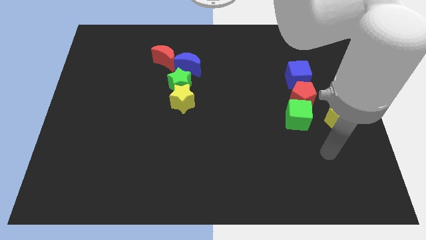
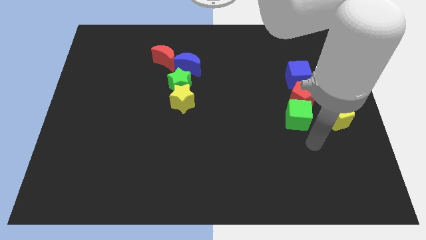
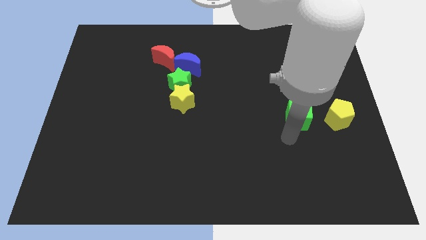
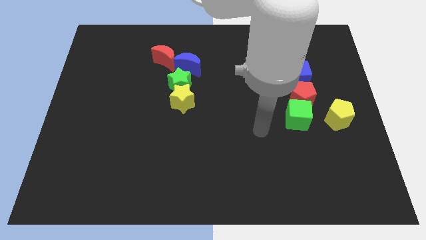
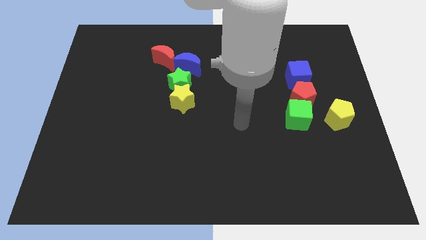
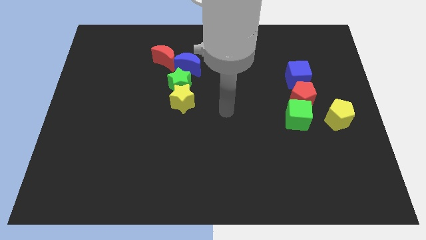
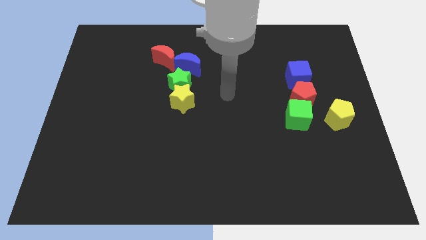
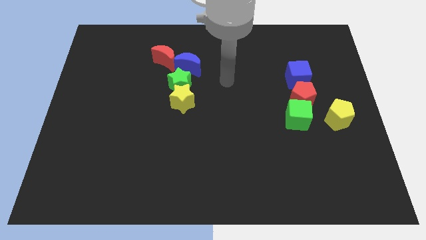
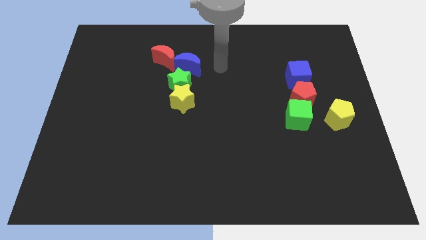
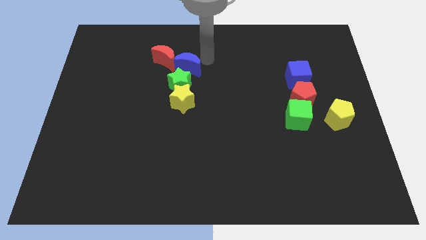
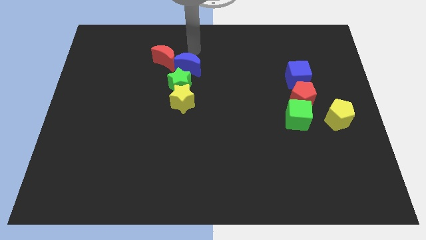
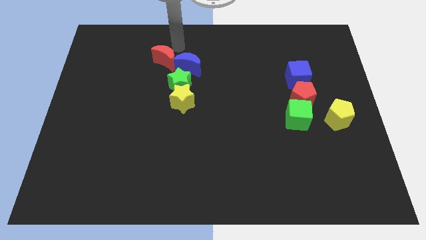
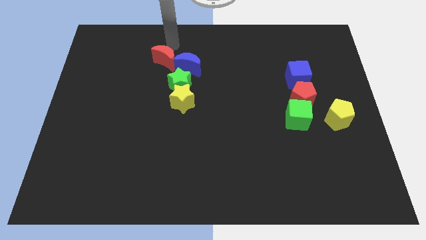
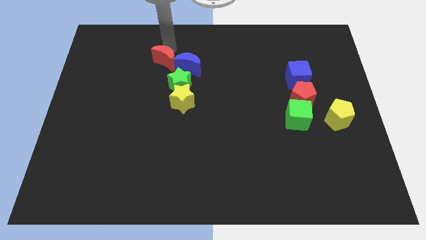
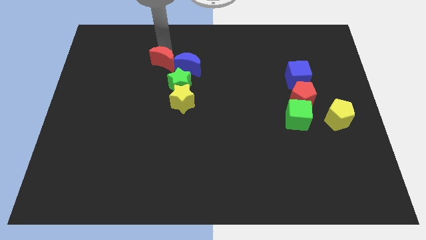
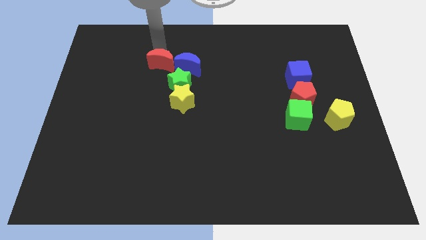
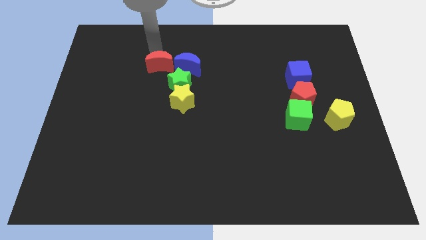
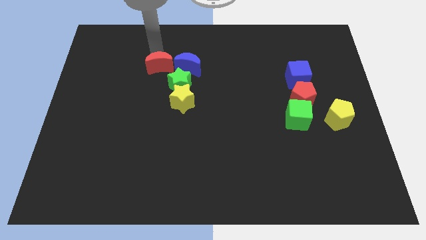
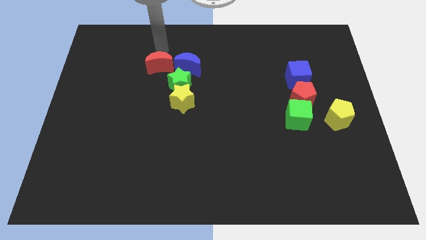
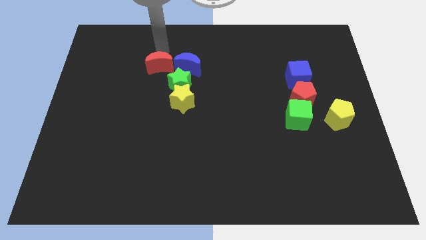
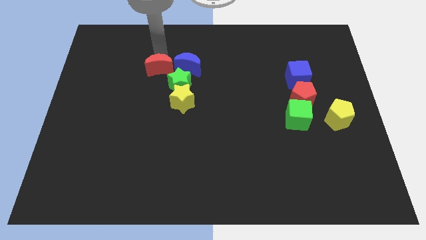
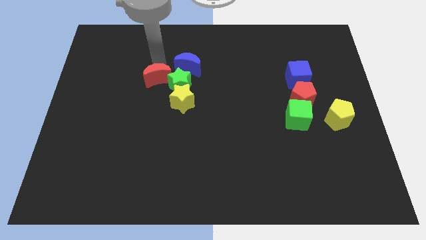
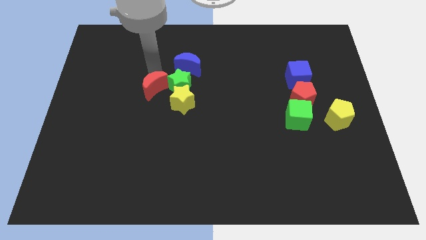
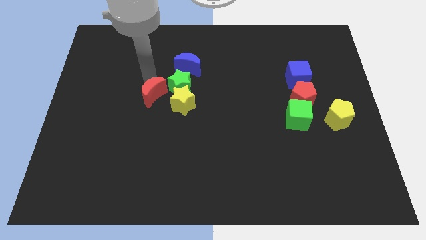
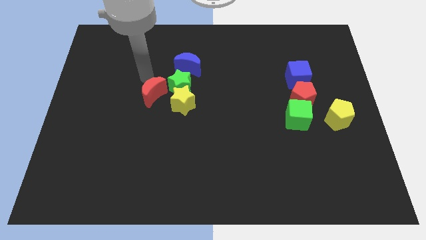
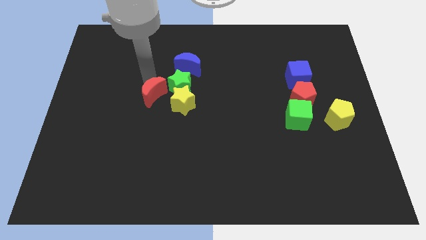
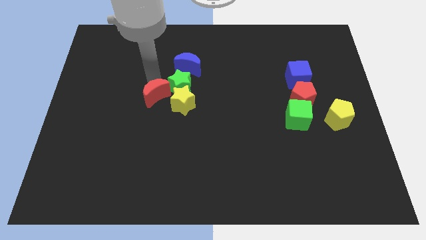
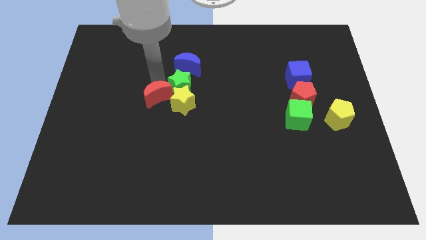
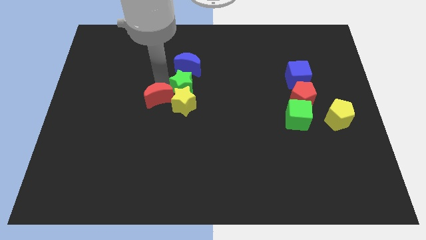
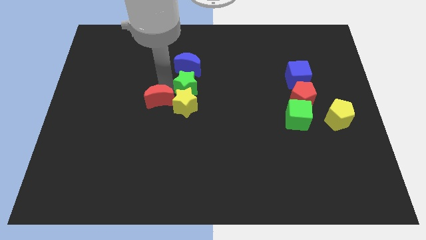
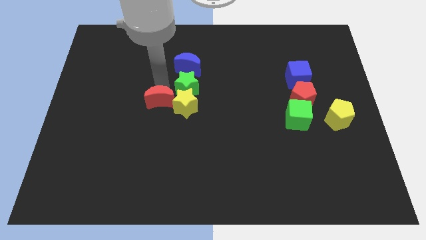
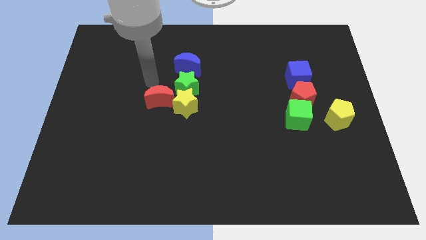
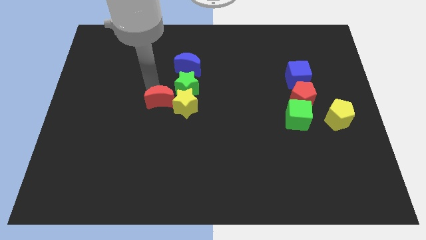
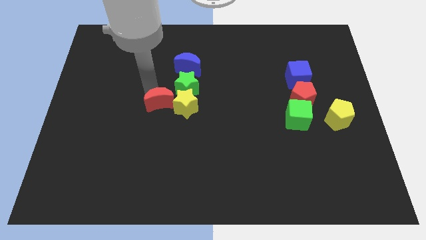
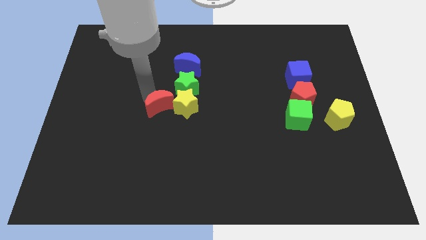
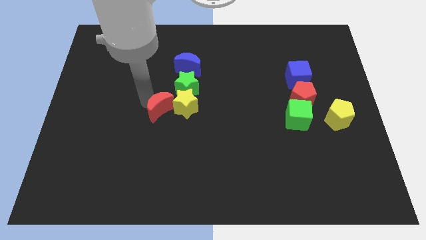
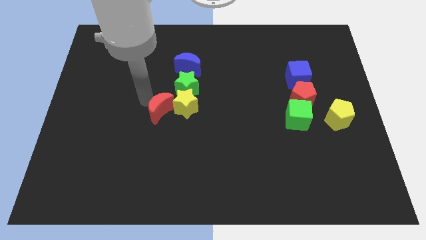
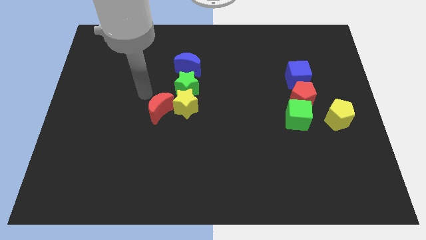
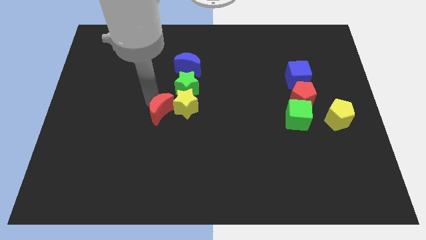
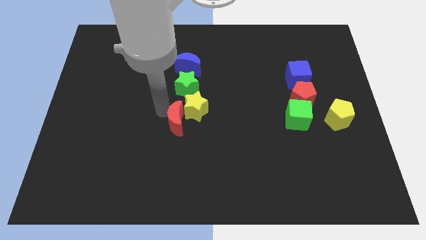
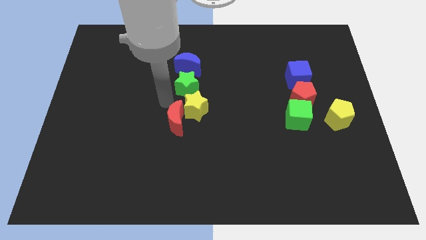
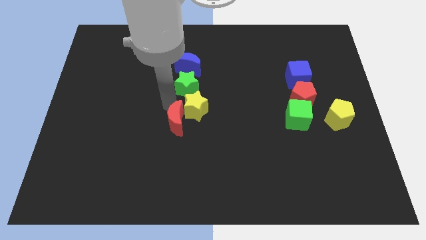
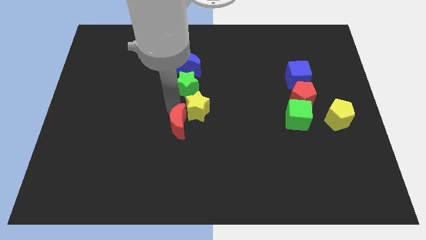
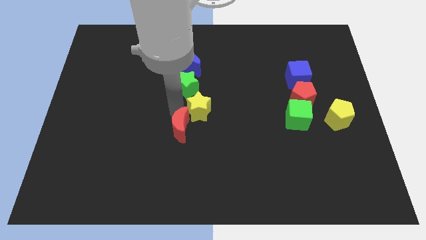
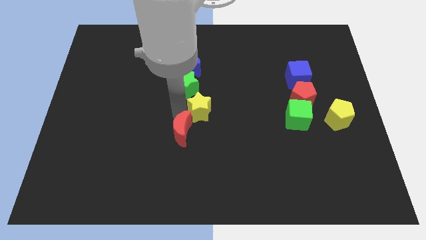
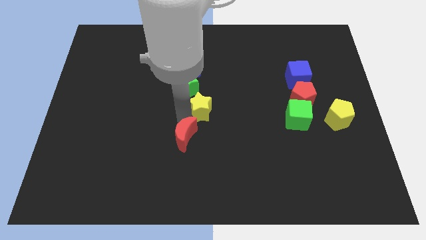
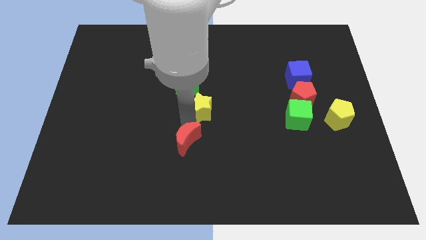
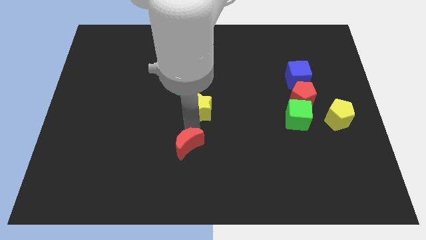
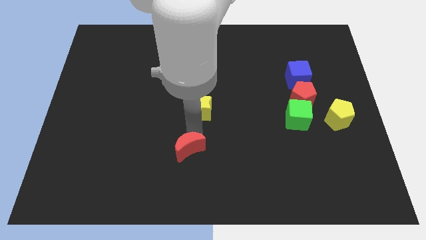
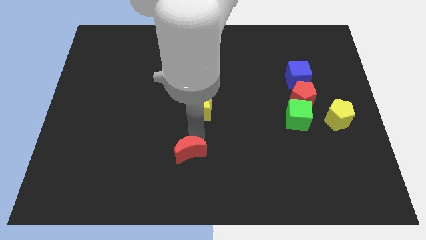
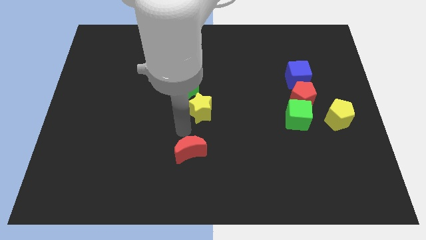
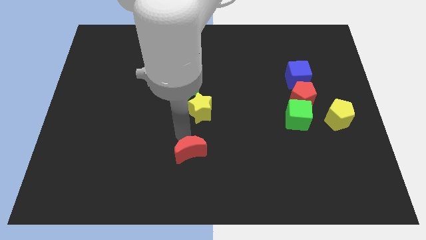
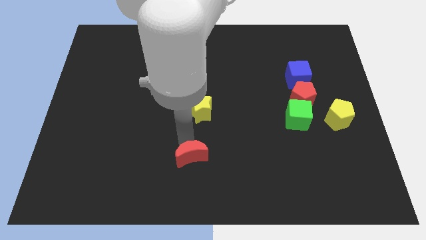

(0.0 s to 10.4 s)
slide the red moon to the bottom

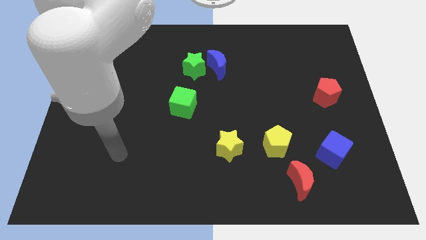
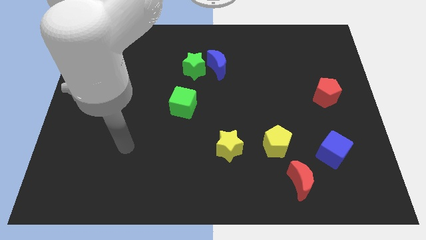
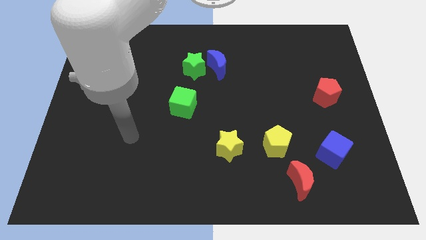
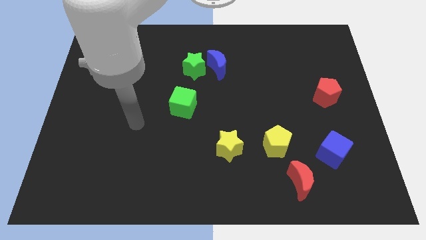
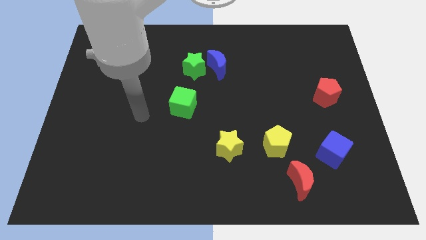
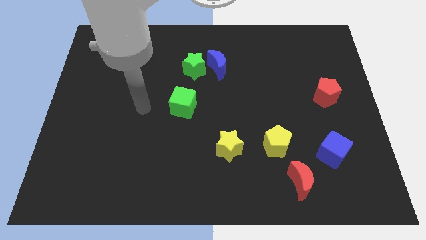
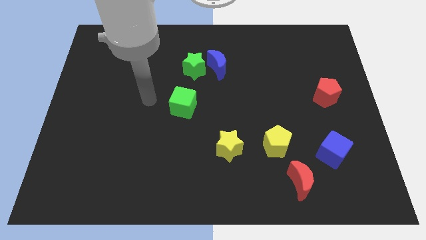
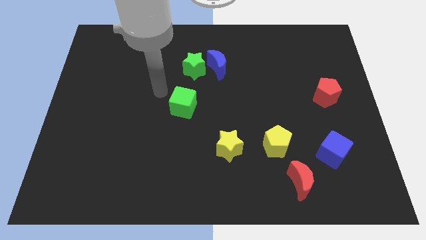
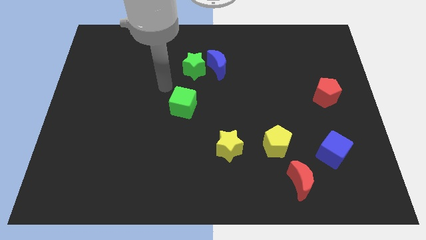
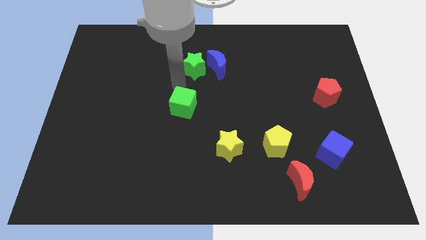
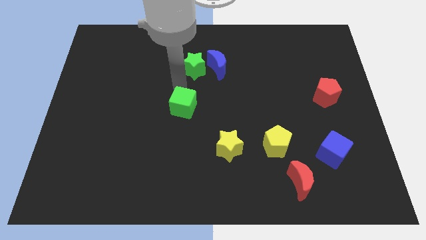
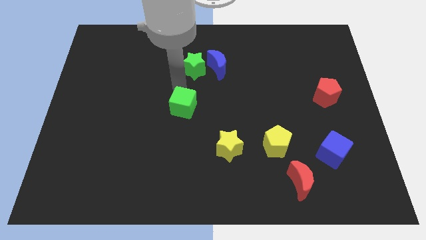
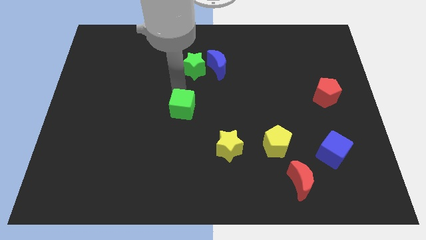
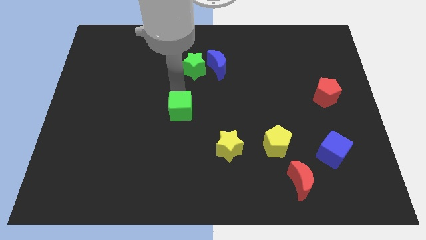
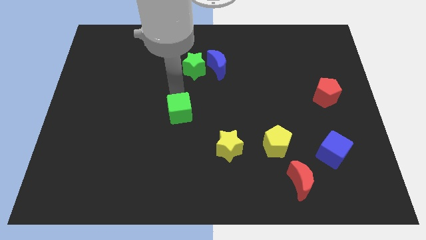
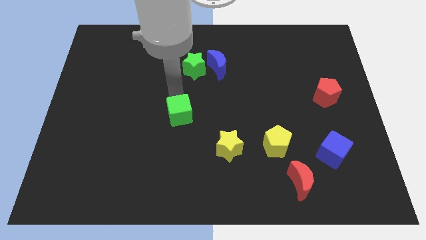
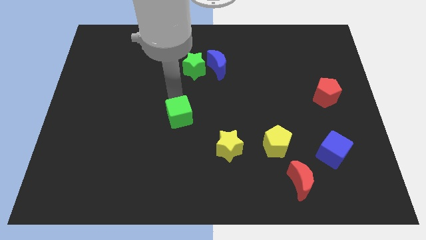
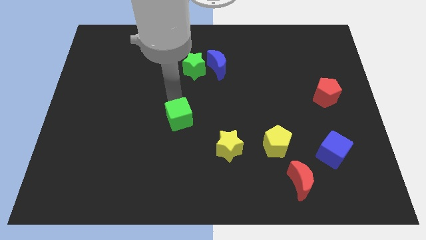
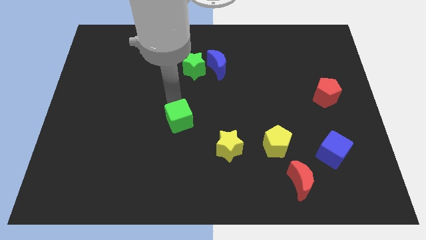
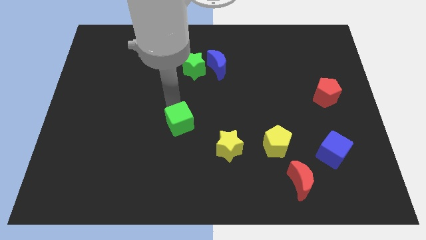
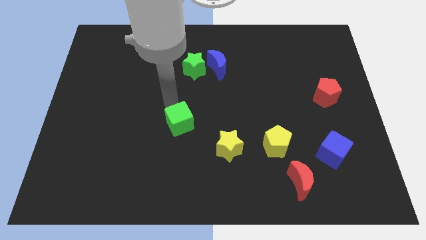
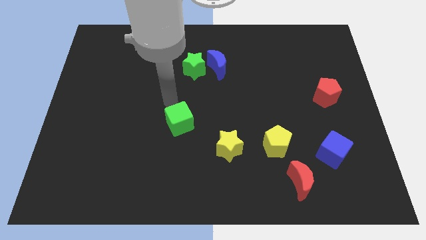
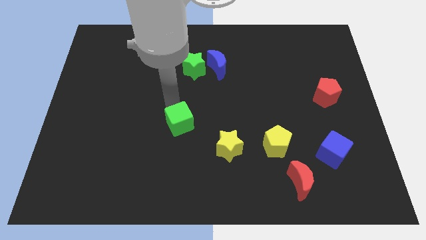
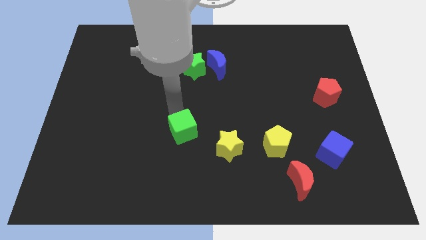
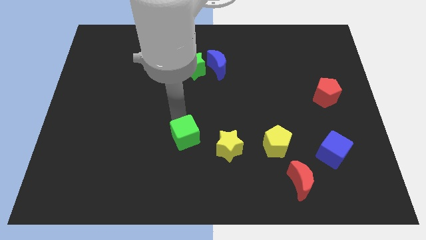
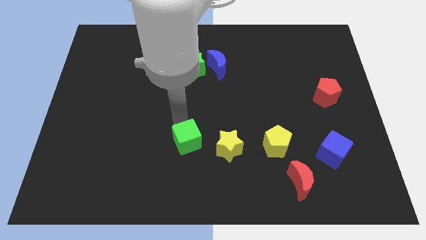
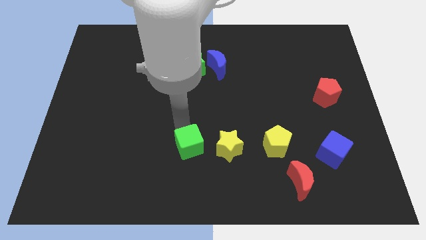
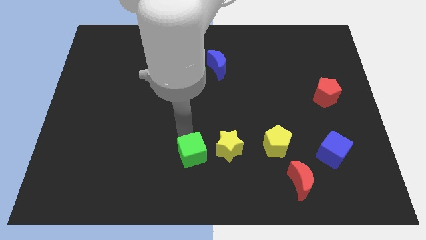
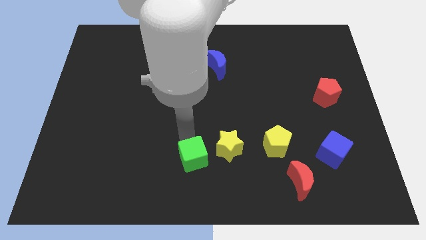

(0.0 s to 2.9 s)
slide the green cube to the bottom side
